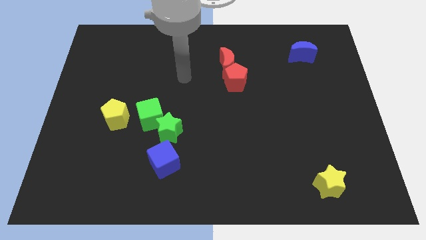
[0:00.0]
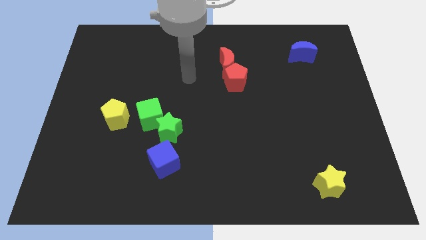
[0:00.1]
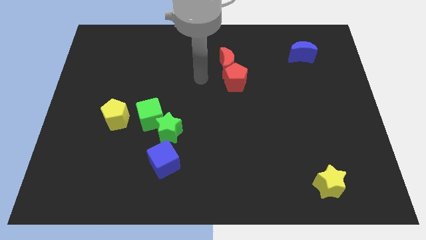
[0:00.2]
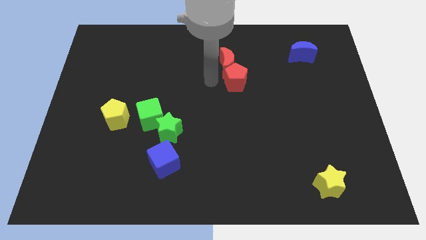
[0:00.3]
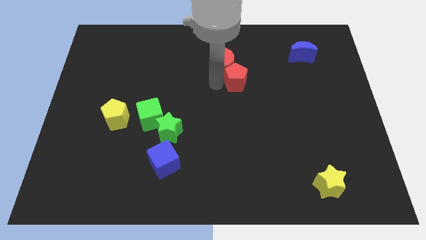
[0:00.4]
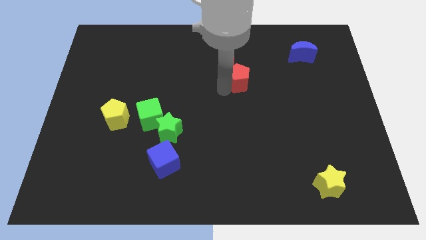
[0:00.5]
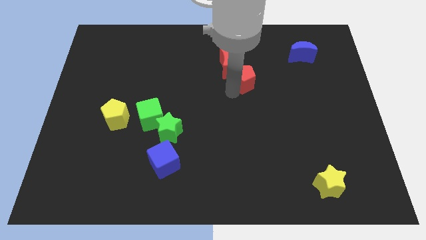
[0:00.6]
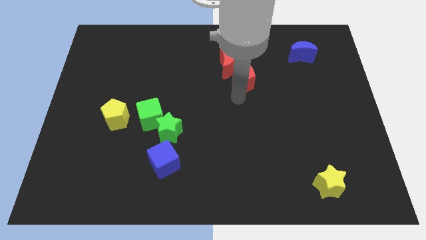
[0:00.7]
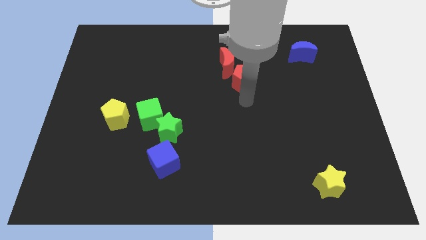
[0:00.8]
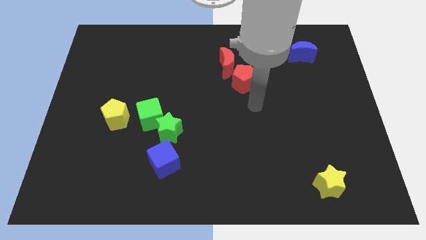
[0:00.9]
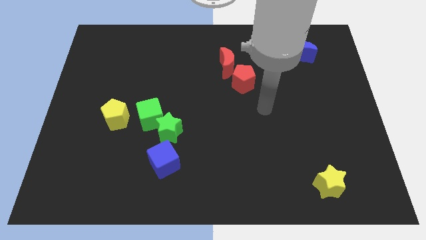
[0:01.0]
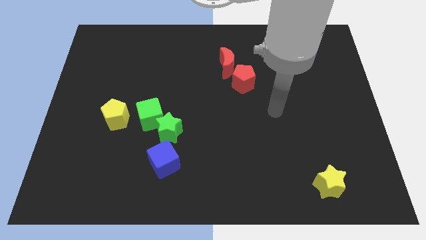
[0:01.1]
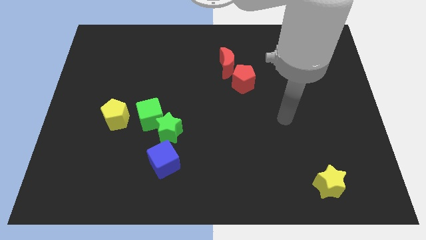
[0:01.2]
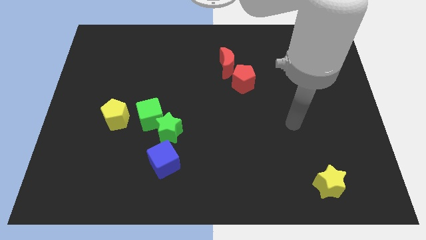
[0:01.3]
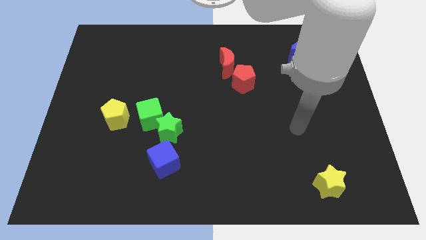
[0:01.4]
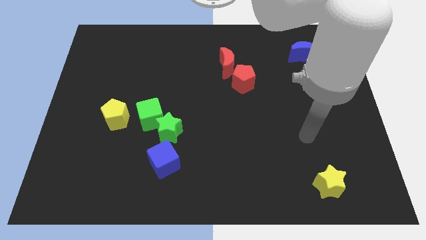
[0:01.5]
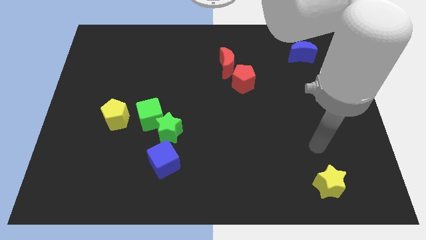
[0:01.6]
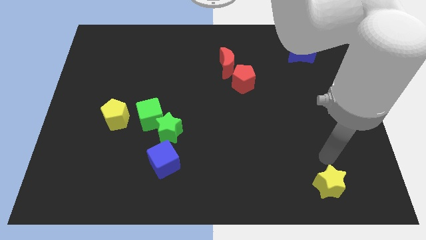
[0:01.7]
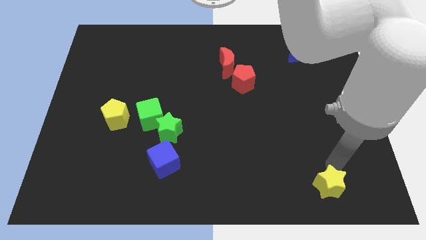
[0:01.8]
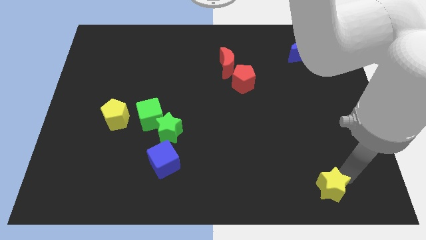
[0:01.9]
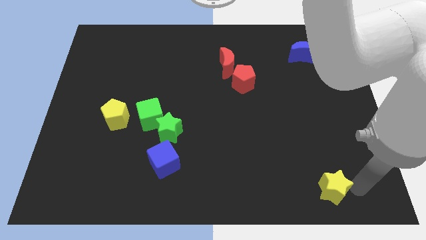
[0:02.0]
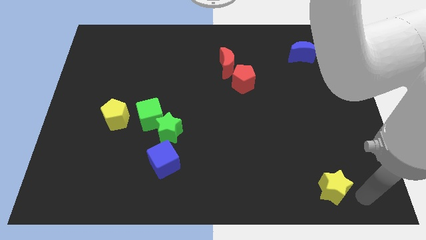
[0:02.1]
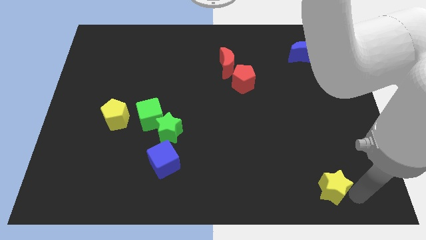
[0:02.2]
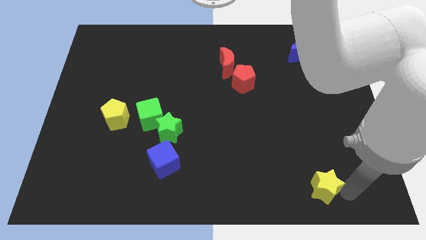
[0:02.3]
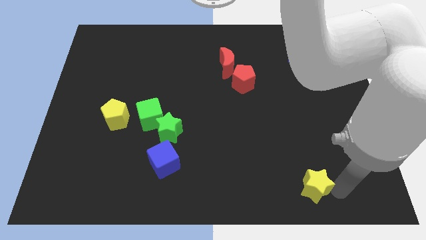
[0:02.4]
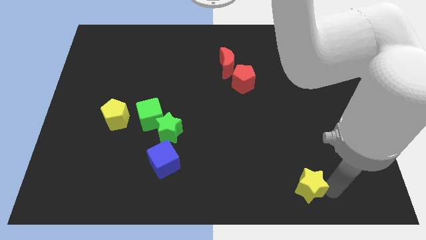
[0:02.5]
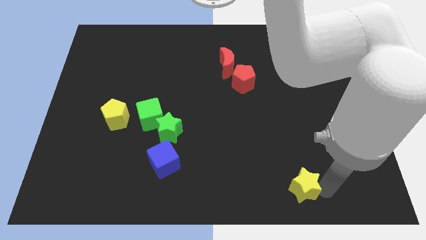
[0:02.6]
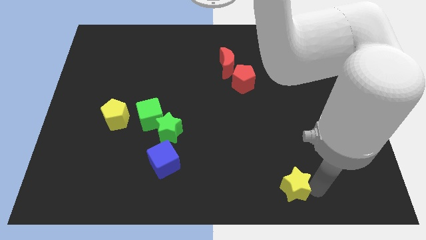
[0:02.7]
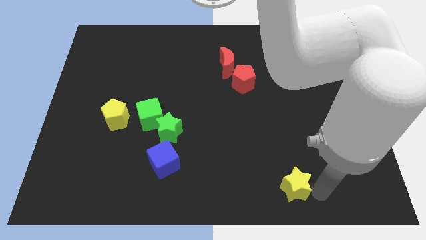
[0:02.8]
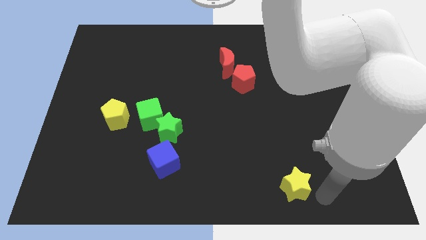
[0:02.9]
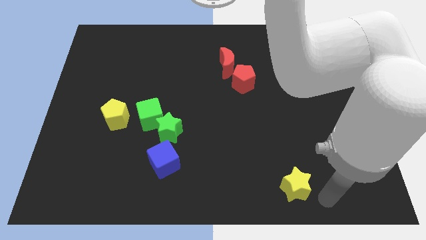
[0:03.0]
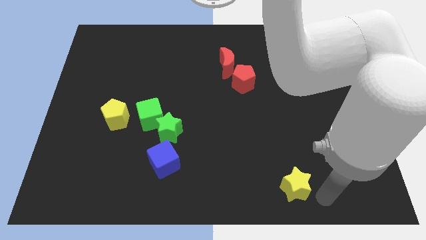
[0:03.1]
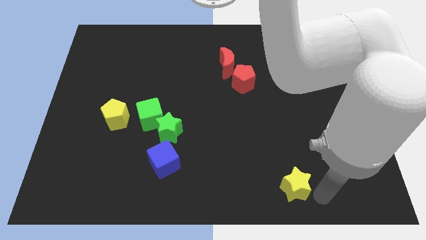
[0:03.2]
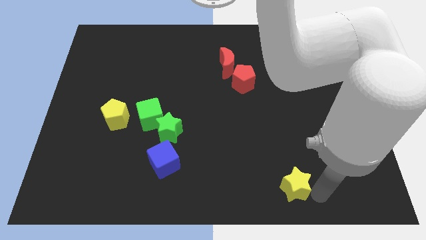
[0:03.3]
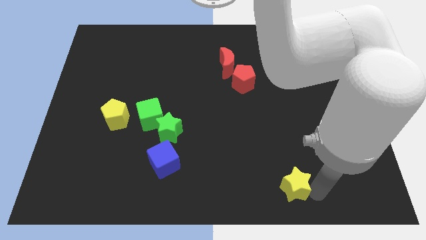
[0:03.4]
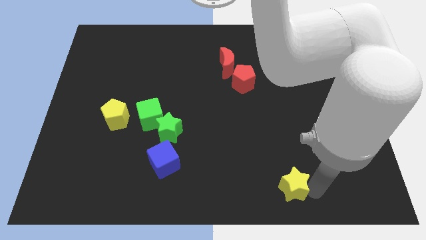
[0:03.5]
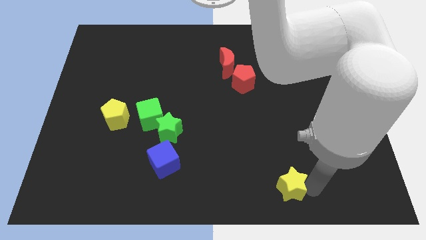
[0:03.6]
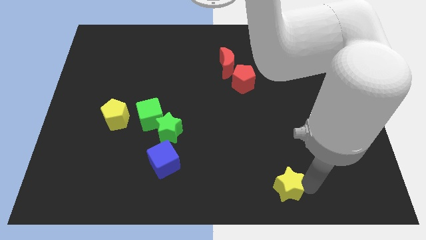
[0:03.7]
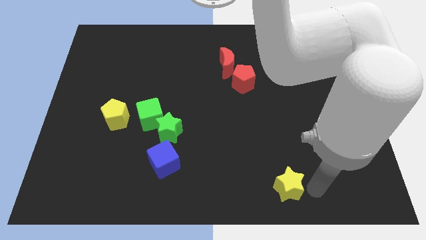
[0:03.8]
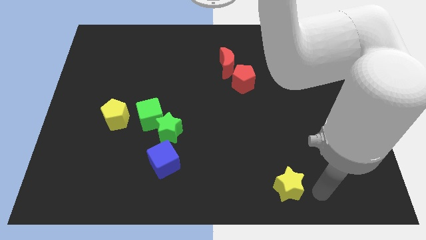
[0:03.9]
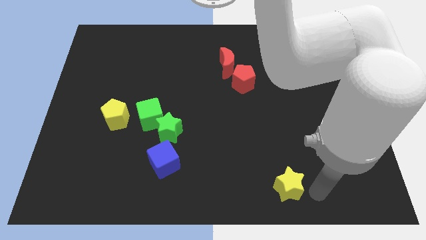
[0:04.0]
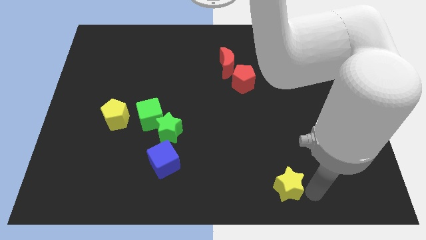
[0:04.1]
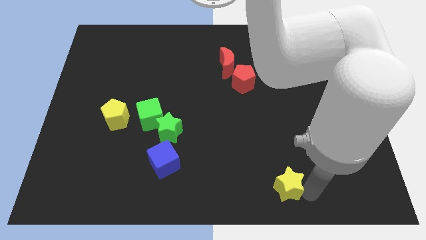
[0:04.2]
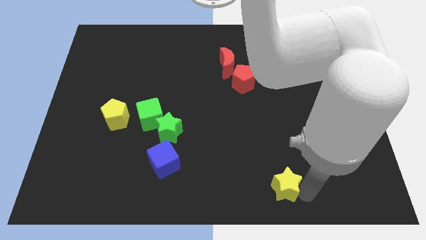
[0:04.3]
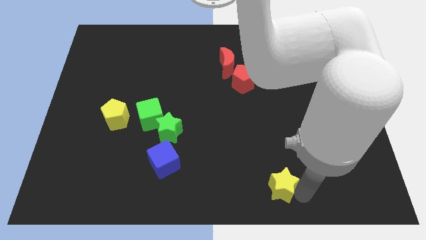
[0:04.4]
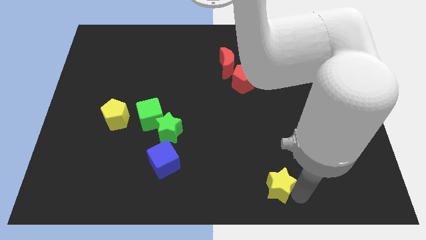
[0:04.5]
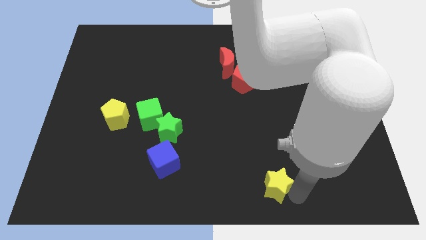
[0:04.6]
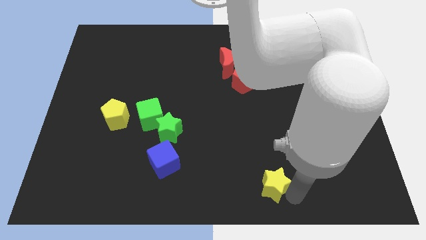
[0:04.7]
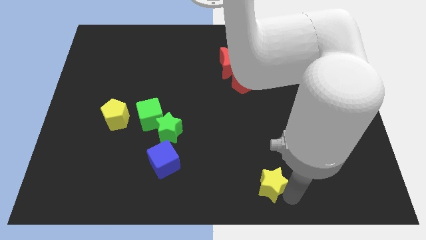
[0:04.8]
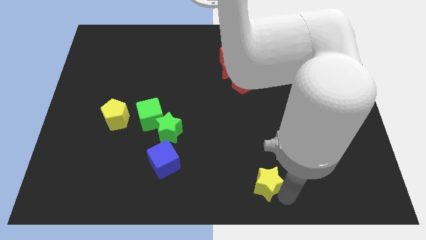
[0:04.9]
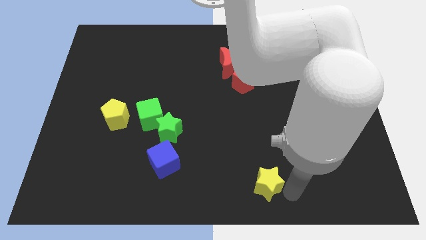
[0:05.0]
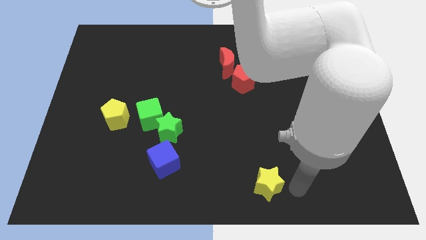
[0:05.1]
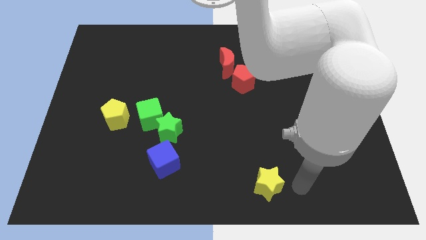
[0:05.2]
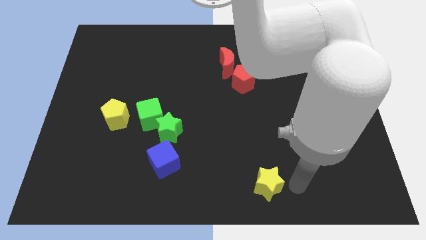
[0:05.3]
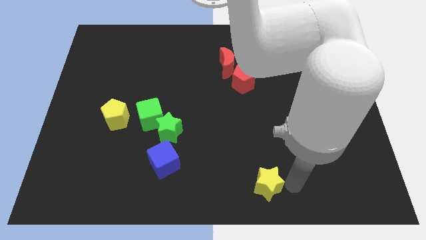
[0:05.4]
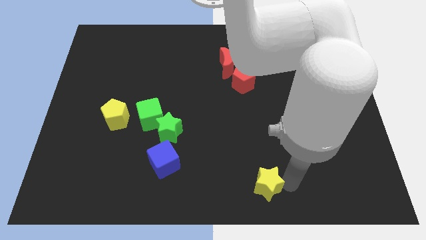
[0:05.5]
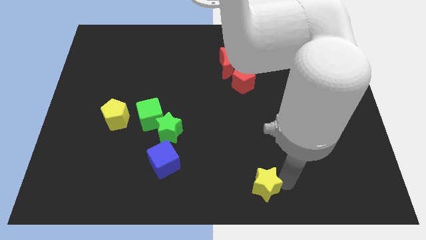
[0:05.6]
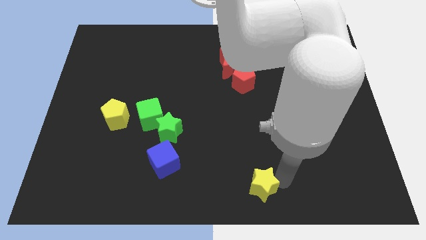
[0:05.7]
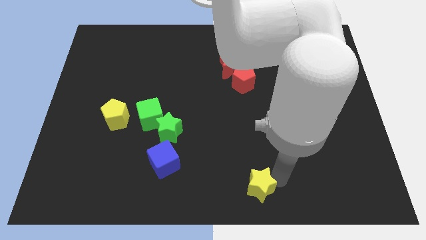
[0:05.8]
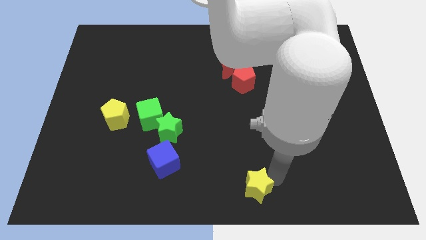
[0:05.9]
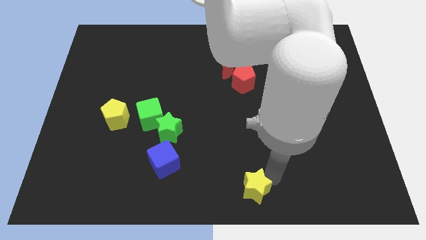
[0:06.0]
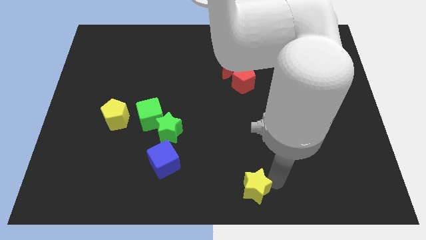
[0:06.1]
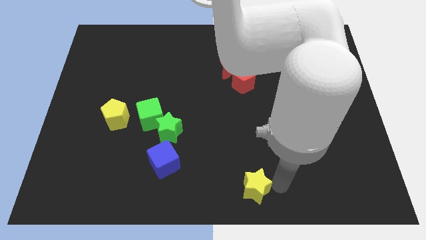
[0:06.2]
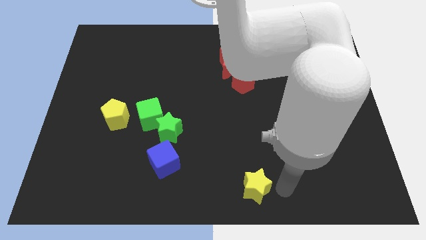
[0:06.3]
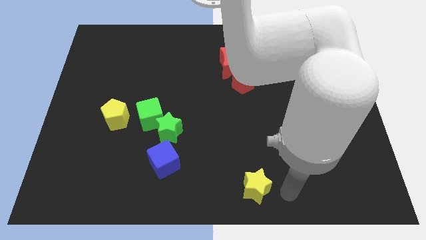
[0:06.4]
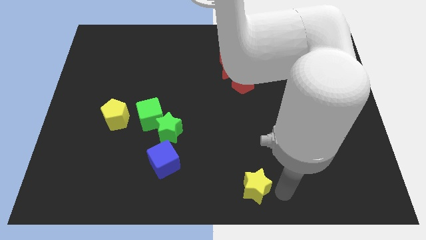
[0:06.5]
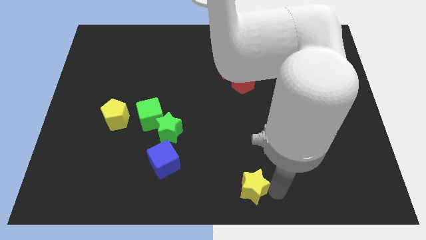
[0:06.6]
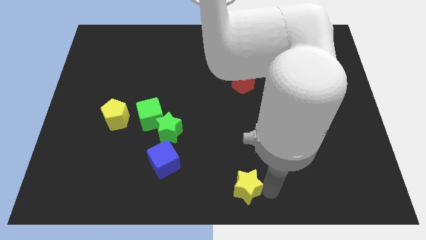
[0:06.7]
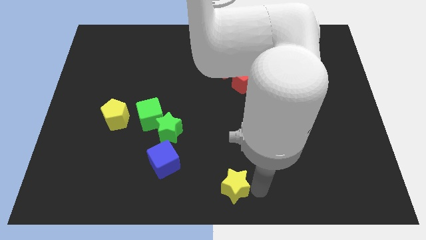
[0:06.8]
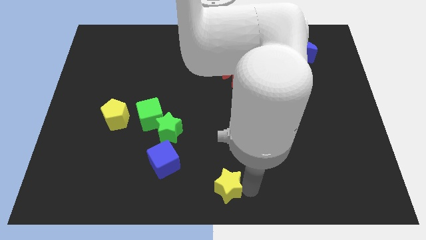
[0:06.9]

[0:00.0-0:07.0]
push the yellow star left

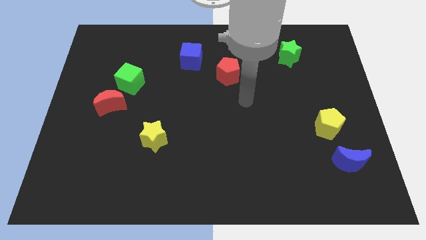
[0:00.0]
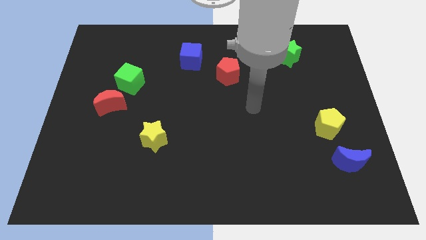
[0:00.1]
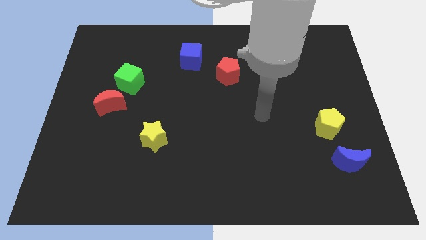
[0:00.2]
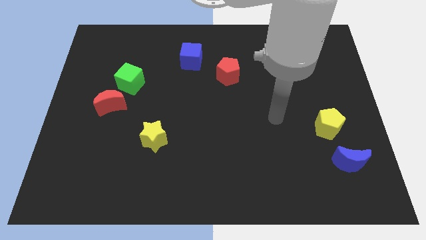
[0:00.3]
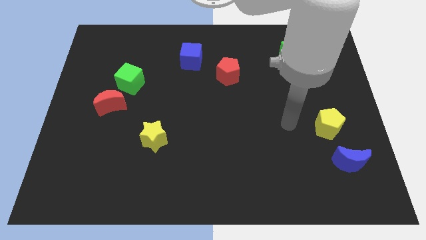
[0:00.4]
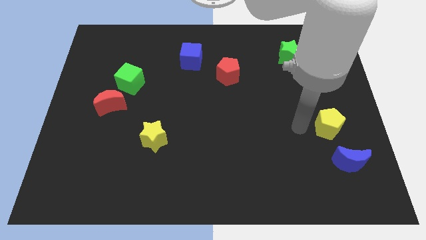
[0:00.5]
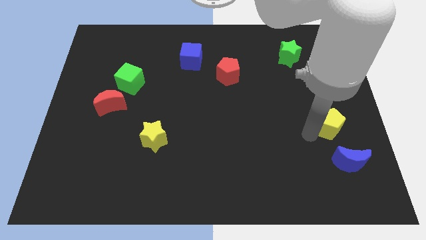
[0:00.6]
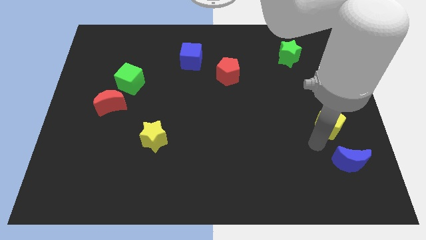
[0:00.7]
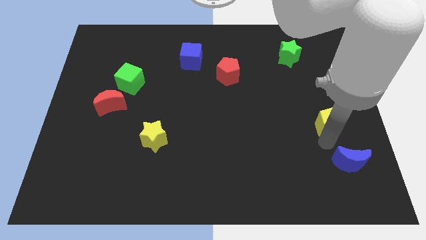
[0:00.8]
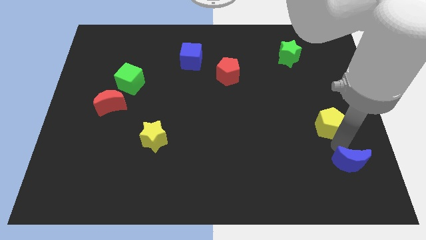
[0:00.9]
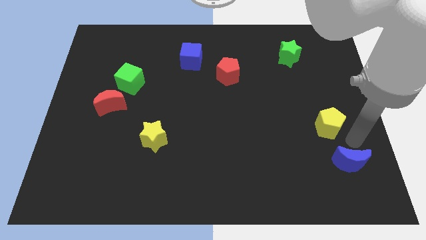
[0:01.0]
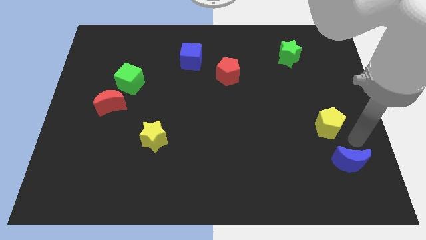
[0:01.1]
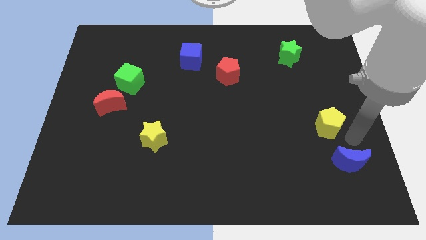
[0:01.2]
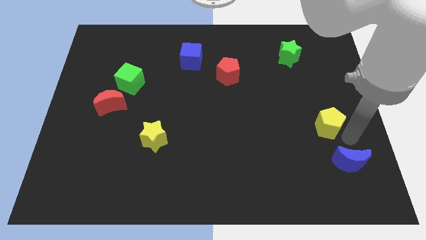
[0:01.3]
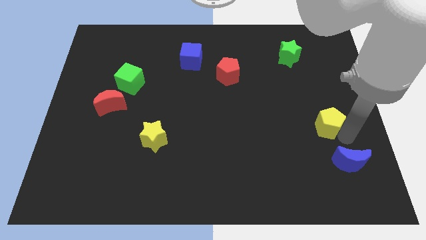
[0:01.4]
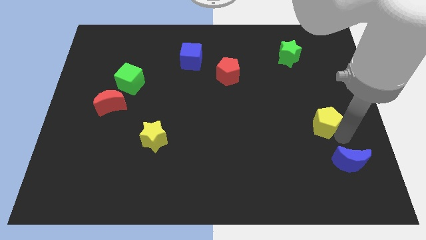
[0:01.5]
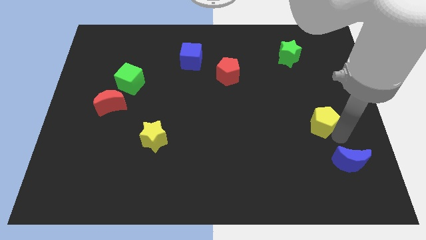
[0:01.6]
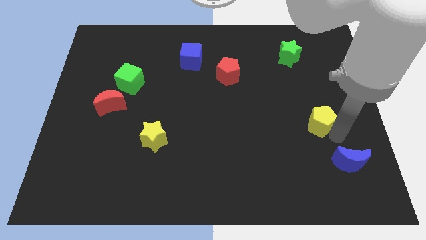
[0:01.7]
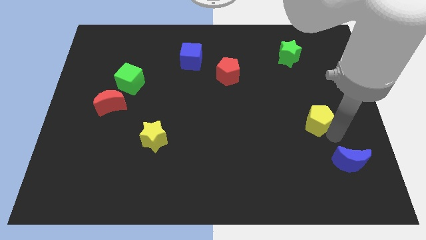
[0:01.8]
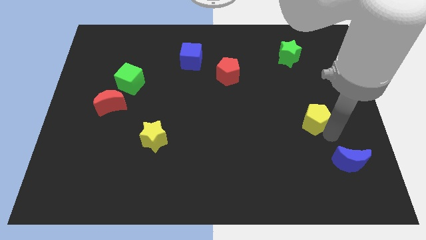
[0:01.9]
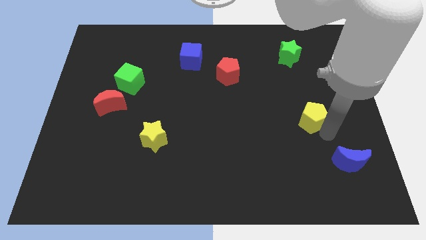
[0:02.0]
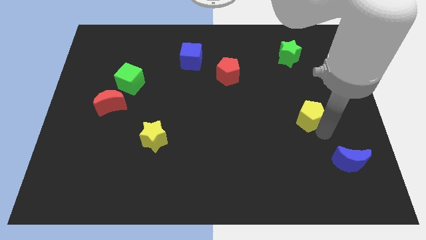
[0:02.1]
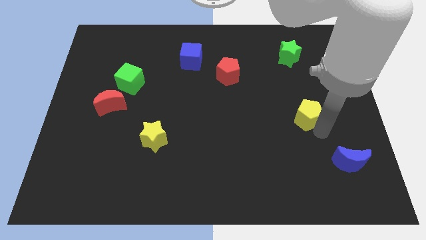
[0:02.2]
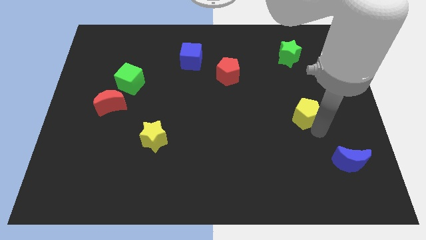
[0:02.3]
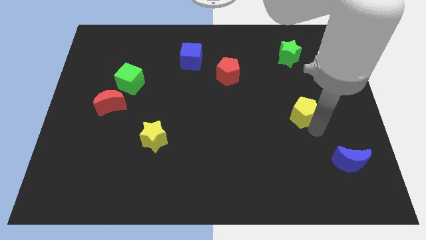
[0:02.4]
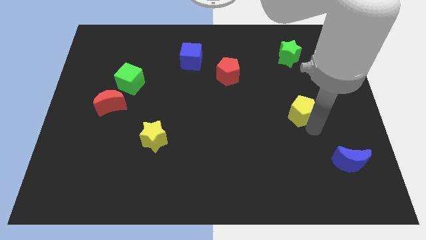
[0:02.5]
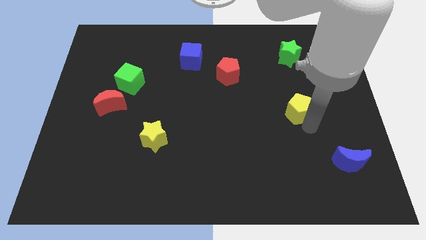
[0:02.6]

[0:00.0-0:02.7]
slightly slide the yellow pentagon up and to the left
